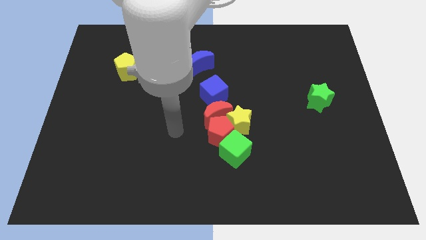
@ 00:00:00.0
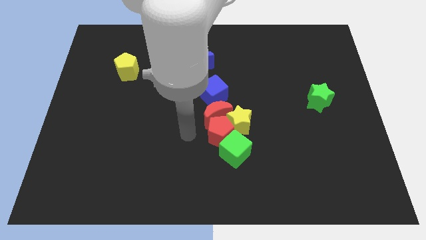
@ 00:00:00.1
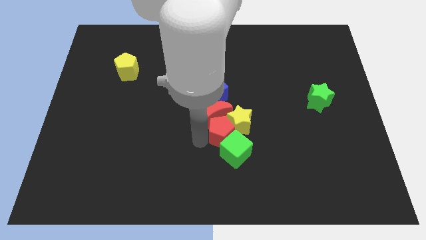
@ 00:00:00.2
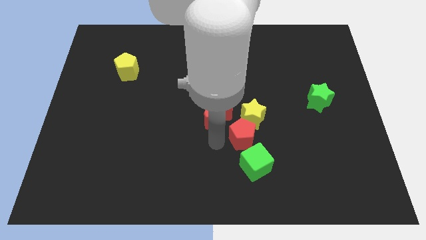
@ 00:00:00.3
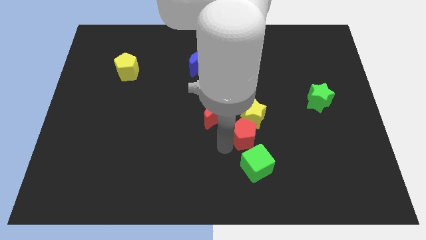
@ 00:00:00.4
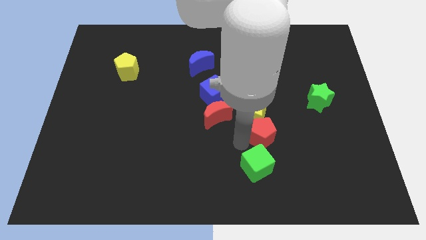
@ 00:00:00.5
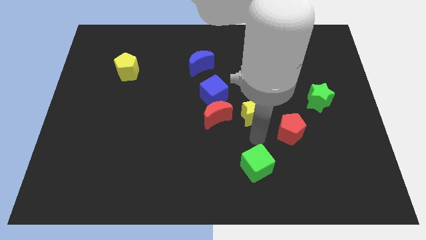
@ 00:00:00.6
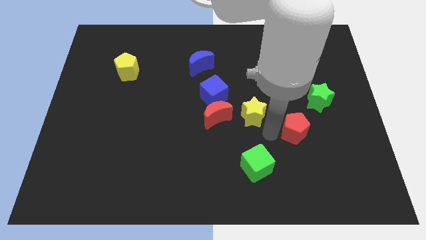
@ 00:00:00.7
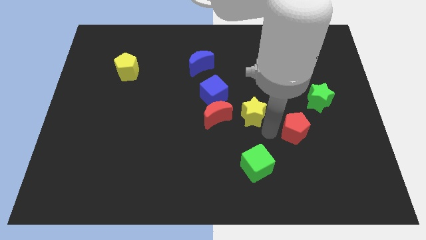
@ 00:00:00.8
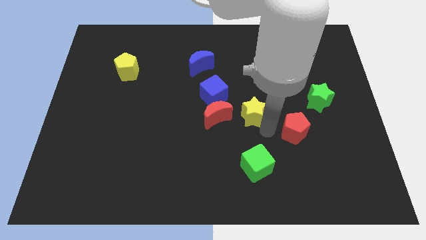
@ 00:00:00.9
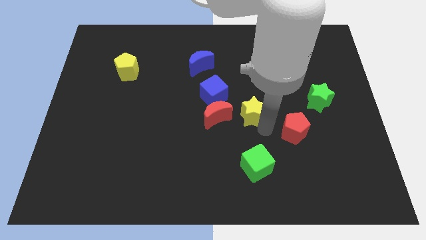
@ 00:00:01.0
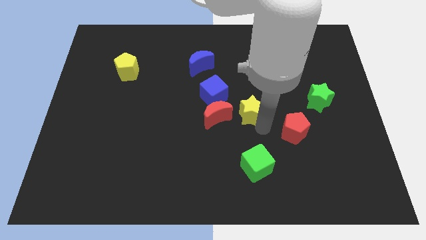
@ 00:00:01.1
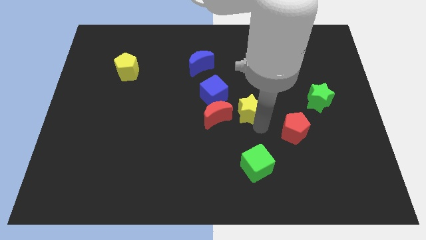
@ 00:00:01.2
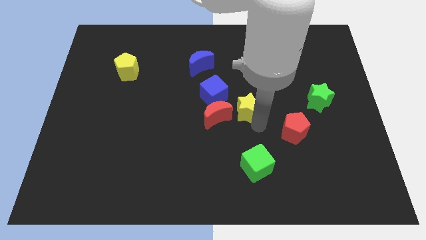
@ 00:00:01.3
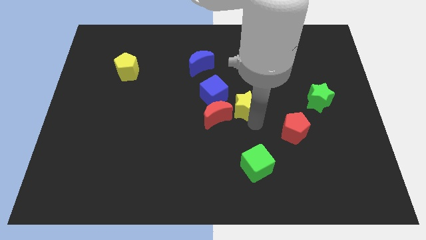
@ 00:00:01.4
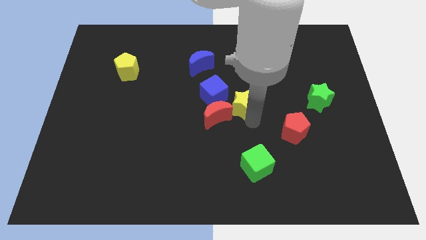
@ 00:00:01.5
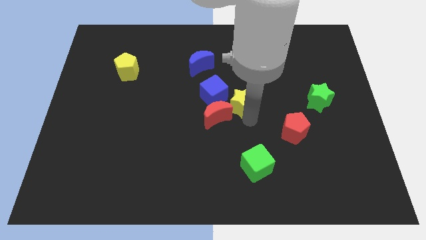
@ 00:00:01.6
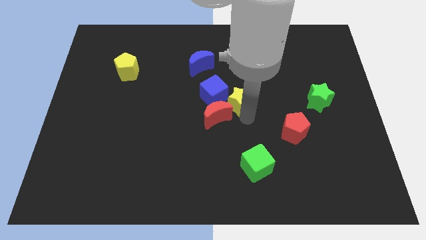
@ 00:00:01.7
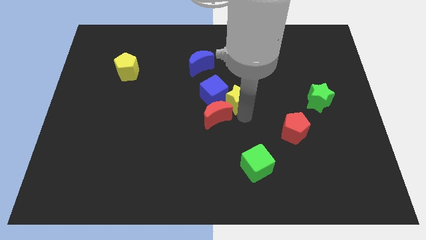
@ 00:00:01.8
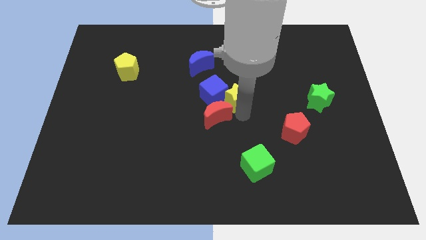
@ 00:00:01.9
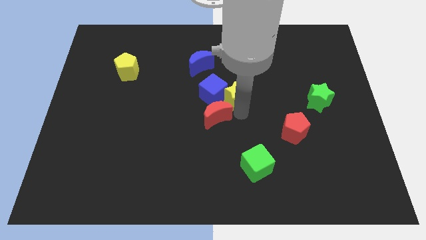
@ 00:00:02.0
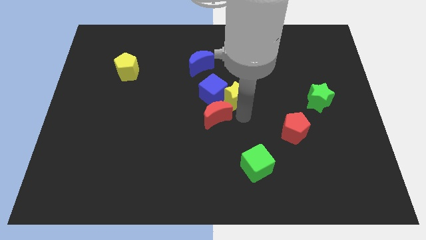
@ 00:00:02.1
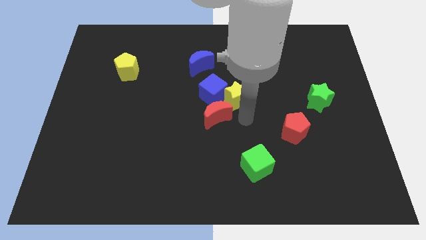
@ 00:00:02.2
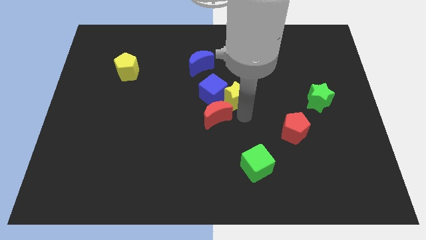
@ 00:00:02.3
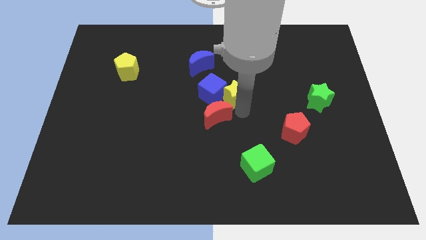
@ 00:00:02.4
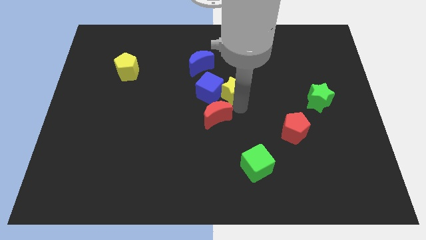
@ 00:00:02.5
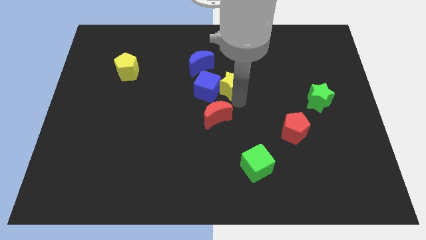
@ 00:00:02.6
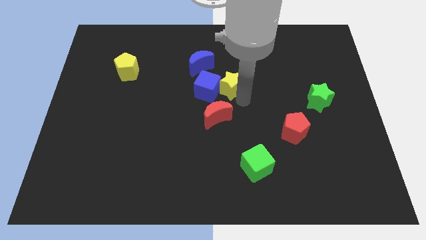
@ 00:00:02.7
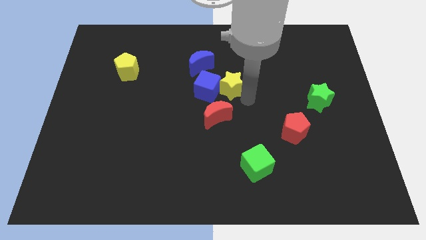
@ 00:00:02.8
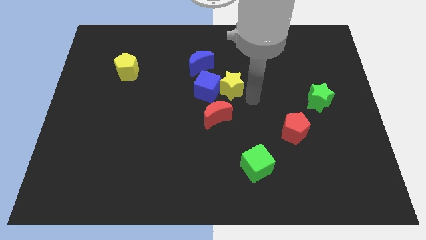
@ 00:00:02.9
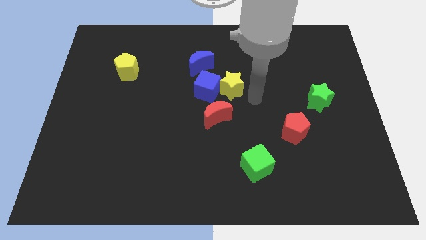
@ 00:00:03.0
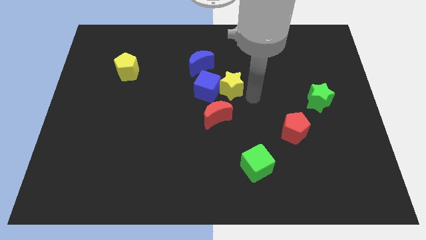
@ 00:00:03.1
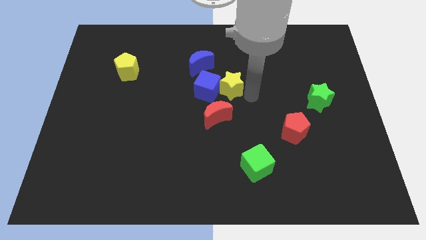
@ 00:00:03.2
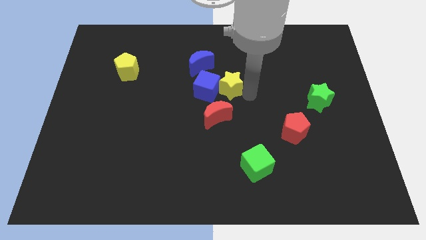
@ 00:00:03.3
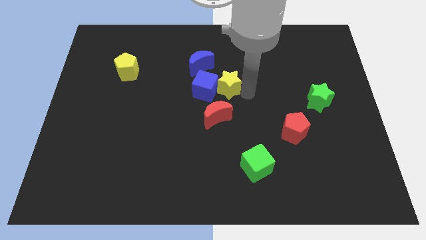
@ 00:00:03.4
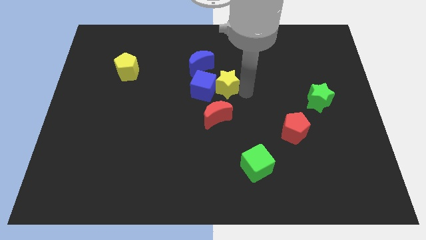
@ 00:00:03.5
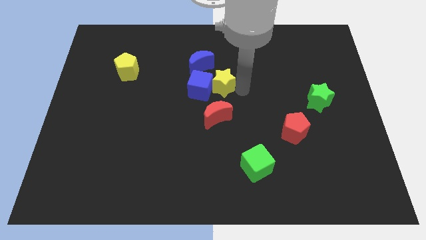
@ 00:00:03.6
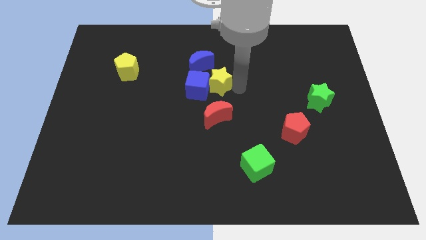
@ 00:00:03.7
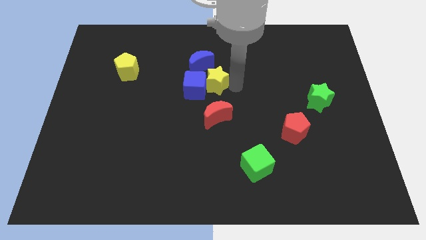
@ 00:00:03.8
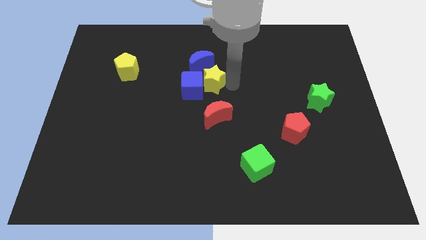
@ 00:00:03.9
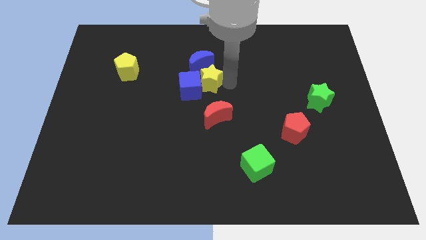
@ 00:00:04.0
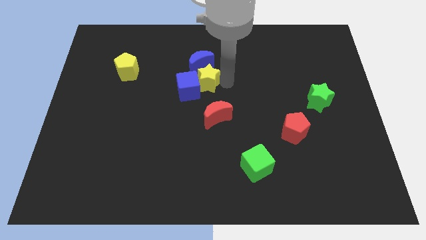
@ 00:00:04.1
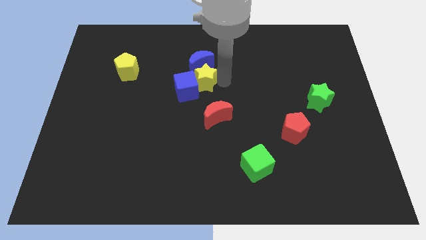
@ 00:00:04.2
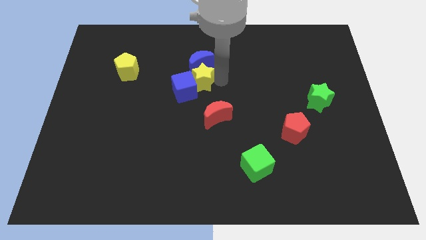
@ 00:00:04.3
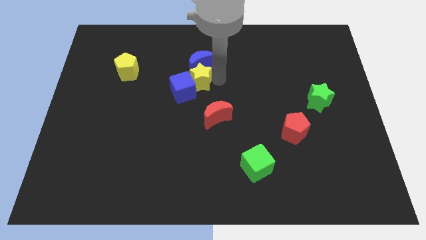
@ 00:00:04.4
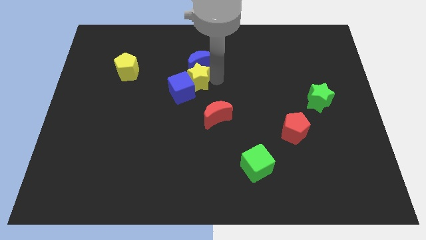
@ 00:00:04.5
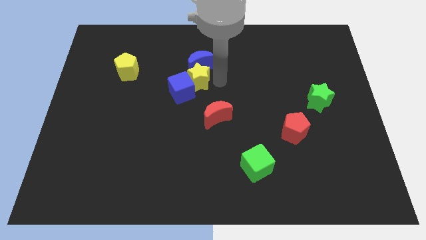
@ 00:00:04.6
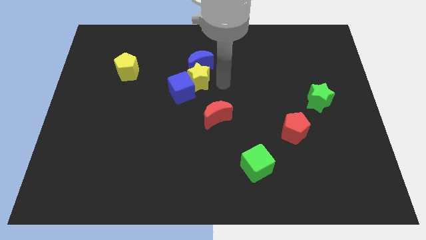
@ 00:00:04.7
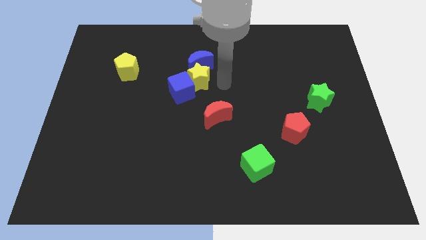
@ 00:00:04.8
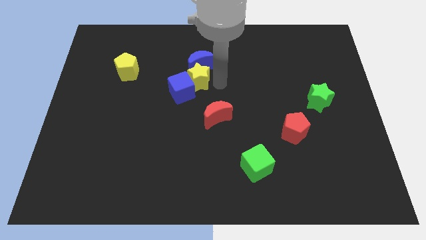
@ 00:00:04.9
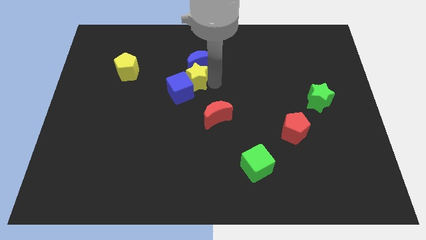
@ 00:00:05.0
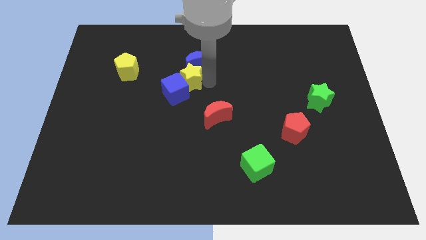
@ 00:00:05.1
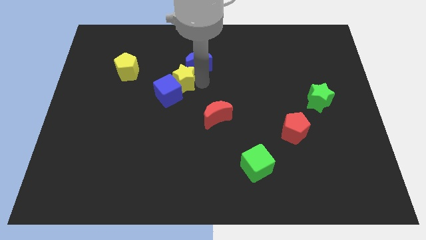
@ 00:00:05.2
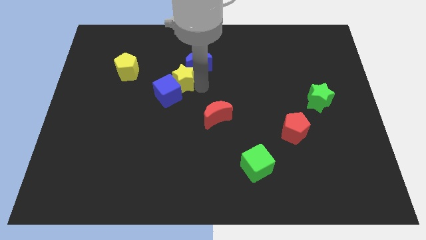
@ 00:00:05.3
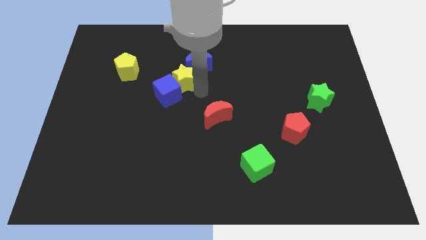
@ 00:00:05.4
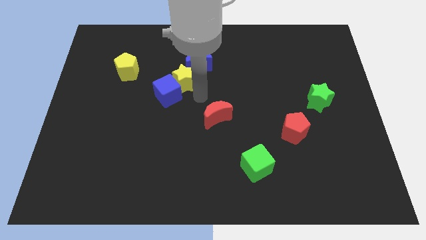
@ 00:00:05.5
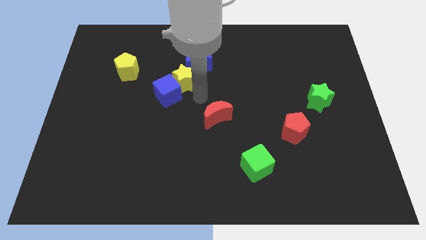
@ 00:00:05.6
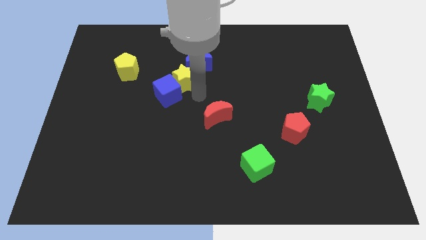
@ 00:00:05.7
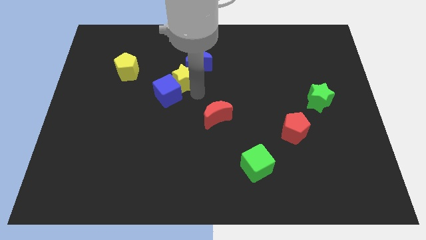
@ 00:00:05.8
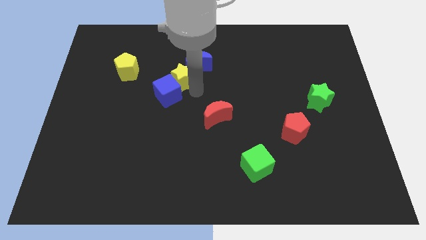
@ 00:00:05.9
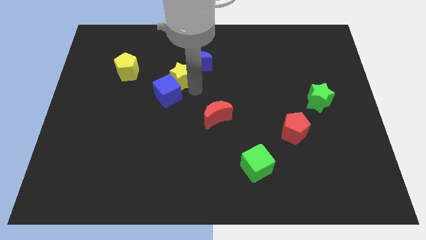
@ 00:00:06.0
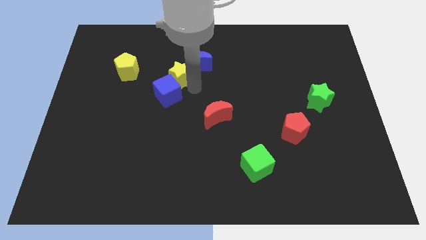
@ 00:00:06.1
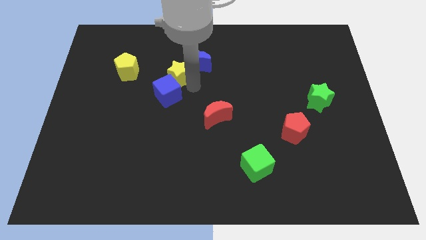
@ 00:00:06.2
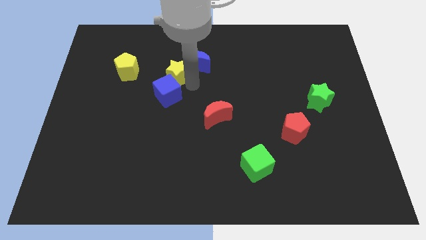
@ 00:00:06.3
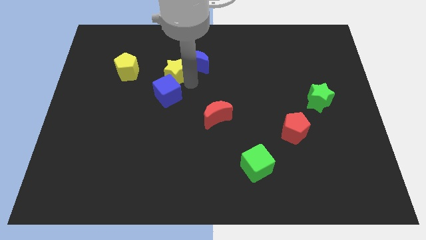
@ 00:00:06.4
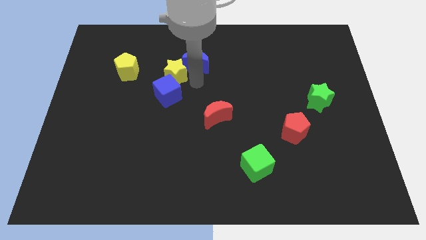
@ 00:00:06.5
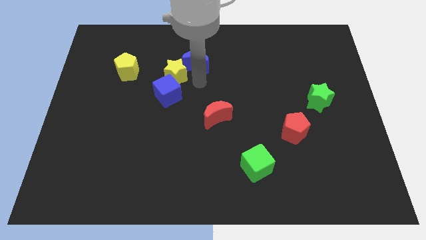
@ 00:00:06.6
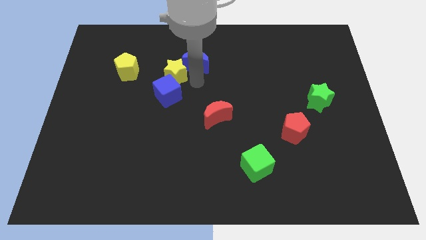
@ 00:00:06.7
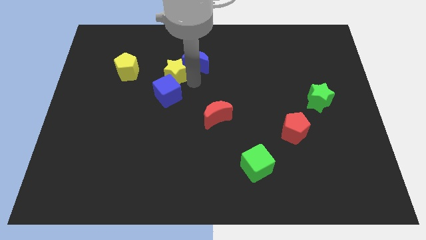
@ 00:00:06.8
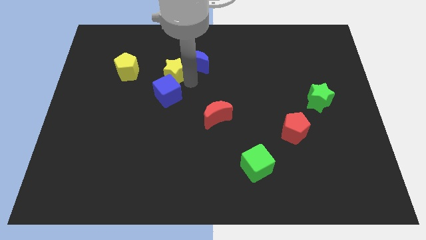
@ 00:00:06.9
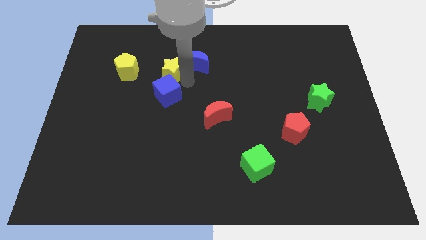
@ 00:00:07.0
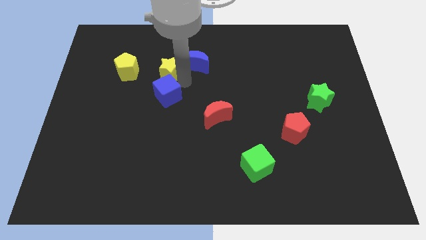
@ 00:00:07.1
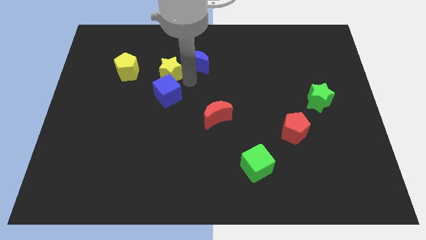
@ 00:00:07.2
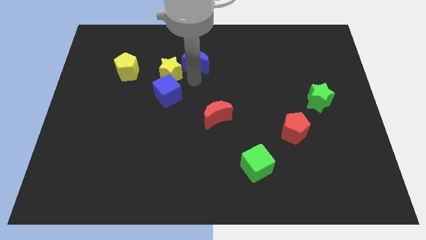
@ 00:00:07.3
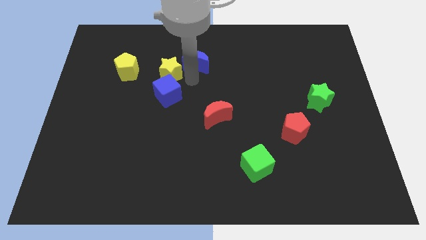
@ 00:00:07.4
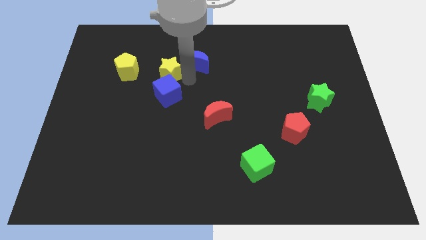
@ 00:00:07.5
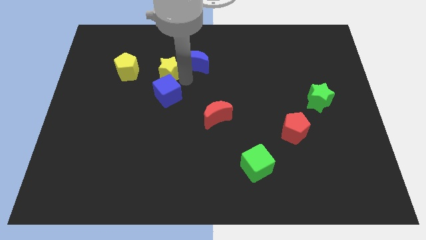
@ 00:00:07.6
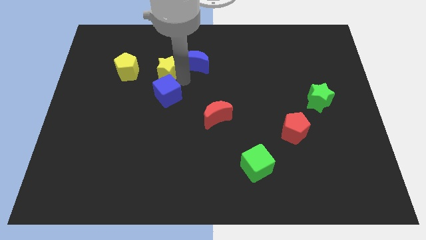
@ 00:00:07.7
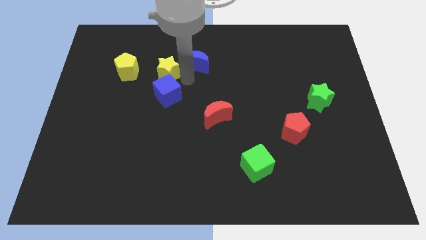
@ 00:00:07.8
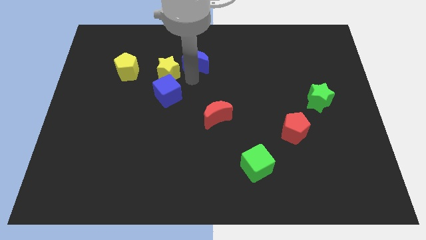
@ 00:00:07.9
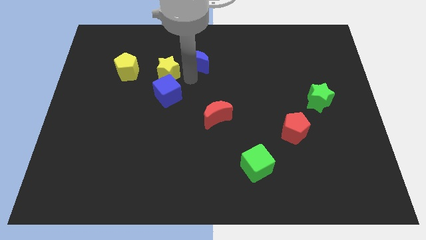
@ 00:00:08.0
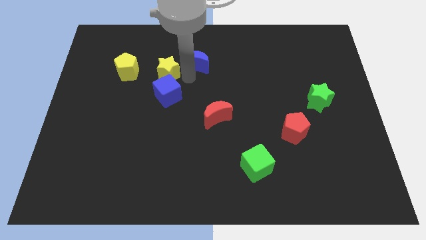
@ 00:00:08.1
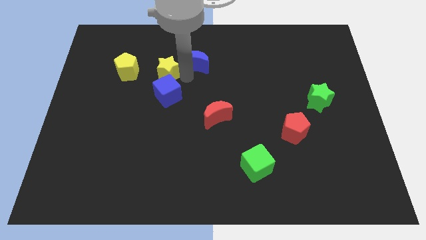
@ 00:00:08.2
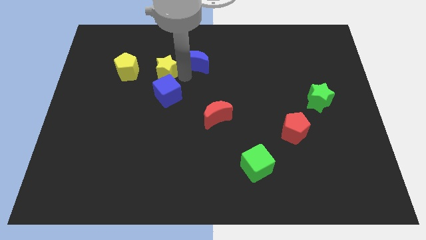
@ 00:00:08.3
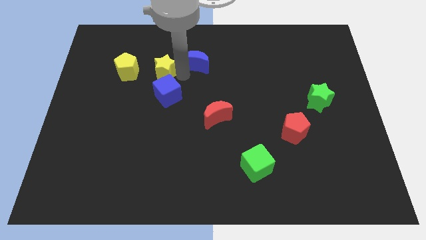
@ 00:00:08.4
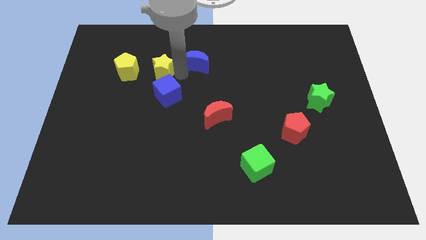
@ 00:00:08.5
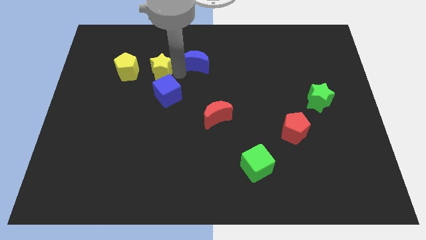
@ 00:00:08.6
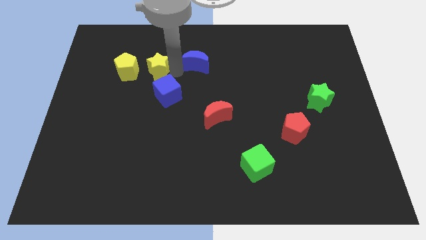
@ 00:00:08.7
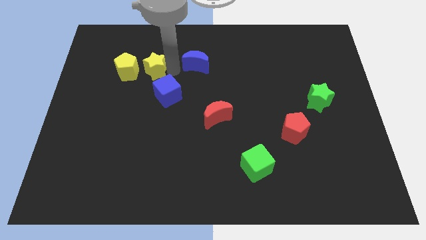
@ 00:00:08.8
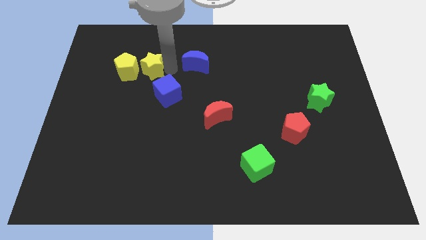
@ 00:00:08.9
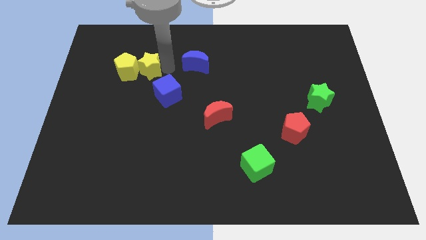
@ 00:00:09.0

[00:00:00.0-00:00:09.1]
push the yellow star next to the yellow pentagon
